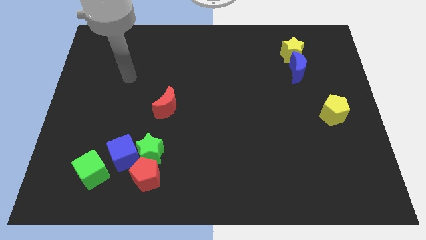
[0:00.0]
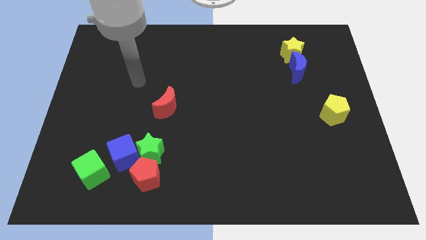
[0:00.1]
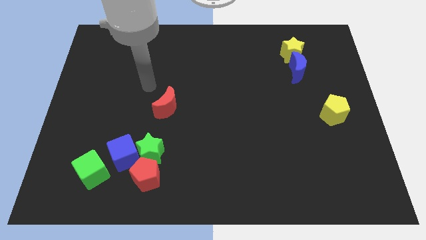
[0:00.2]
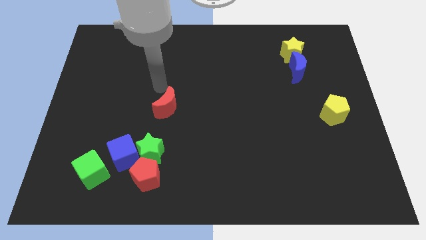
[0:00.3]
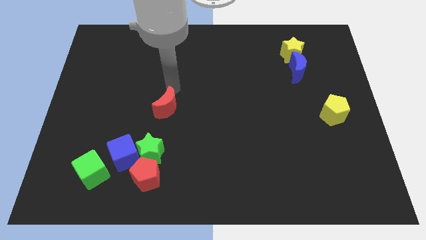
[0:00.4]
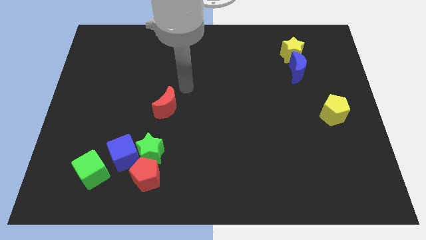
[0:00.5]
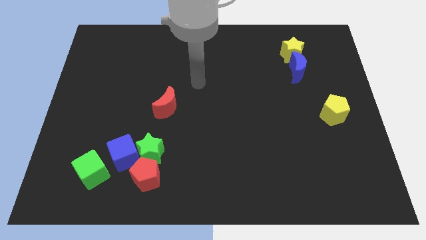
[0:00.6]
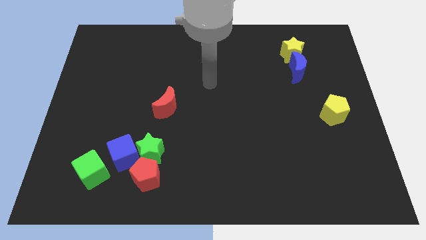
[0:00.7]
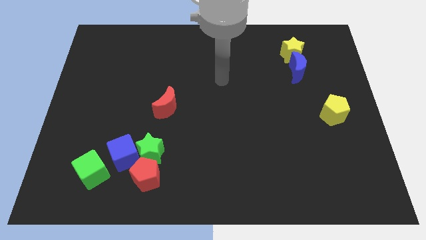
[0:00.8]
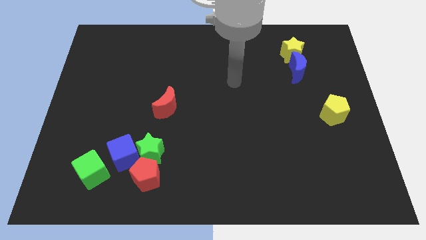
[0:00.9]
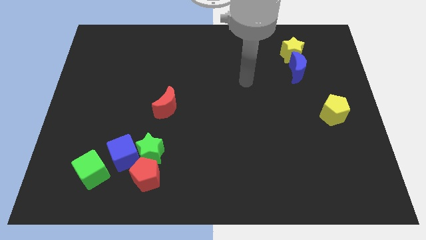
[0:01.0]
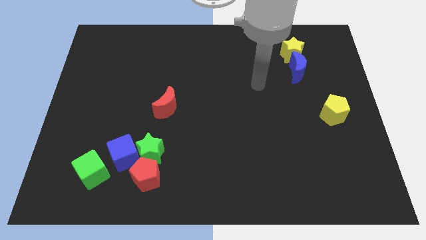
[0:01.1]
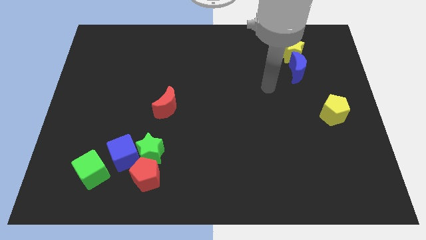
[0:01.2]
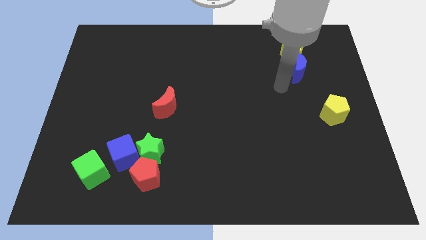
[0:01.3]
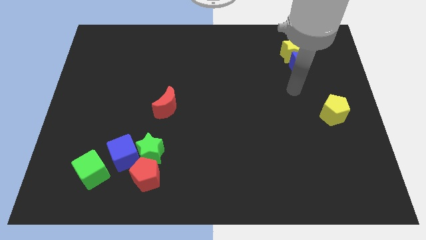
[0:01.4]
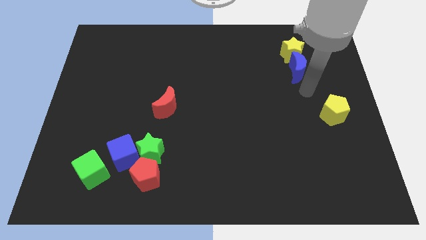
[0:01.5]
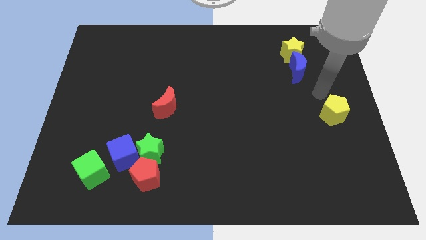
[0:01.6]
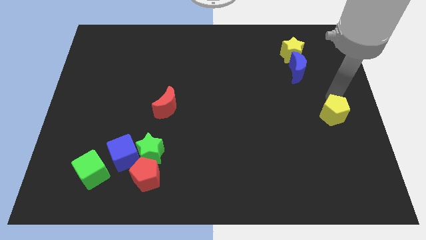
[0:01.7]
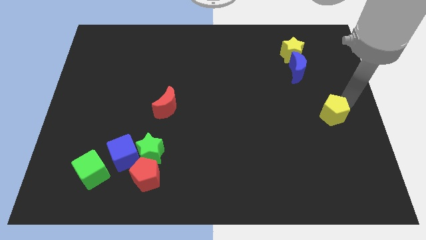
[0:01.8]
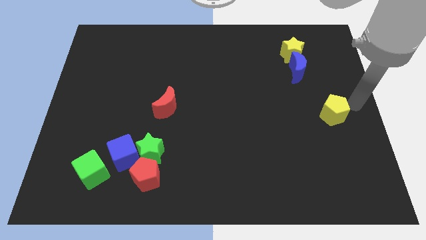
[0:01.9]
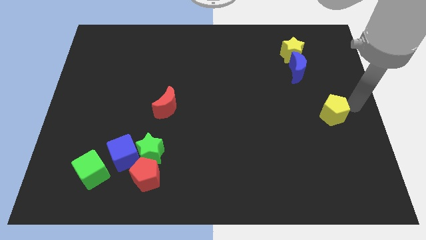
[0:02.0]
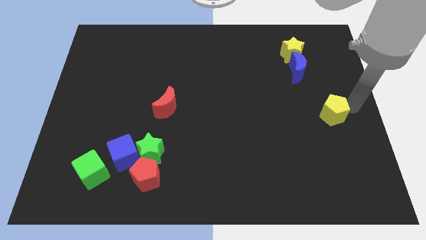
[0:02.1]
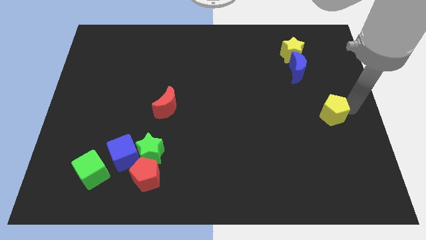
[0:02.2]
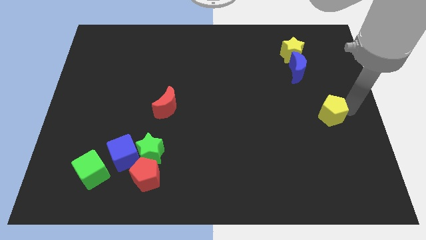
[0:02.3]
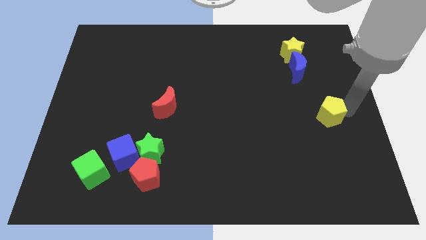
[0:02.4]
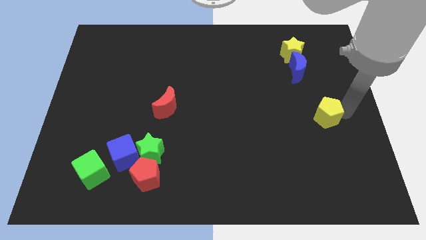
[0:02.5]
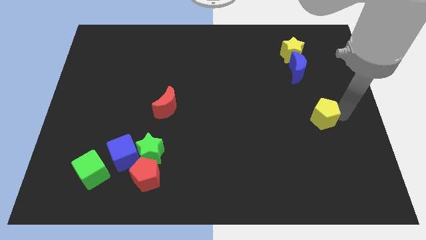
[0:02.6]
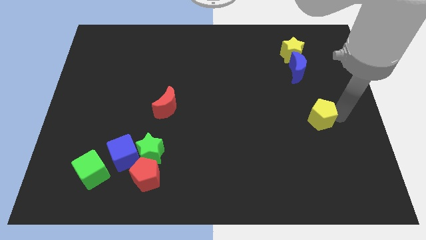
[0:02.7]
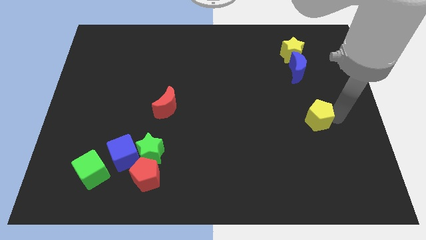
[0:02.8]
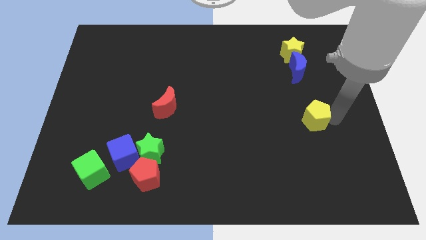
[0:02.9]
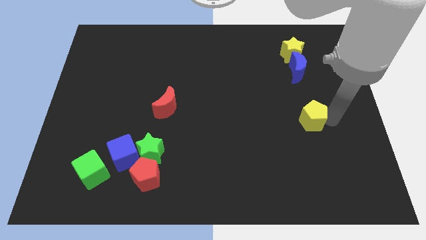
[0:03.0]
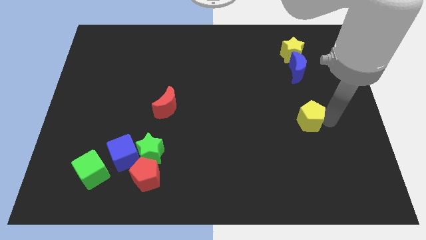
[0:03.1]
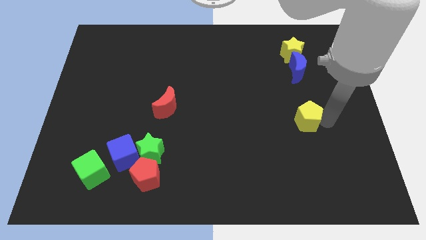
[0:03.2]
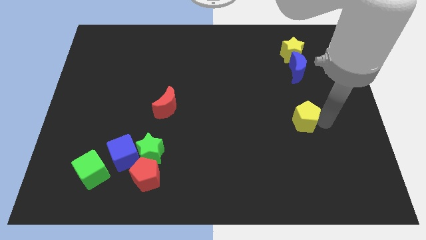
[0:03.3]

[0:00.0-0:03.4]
push the yellow pentagon a little to the left

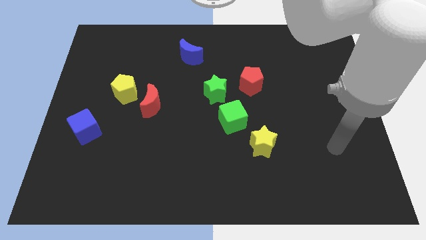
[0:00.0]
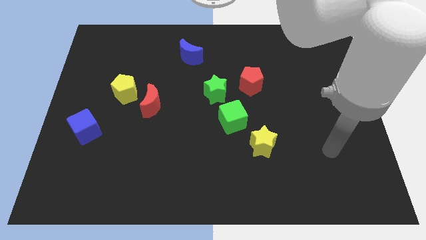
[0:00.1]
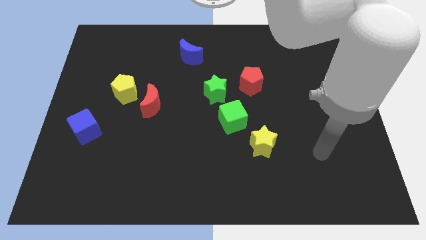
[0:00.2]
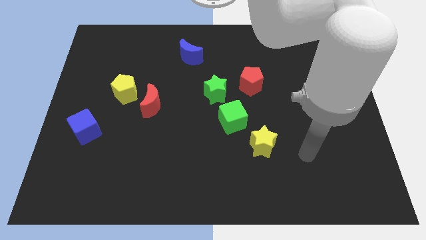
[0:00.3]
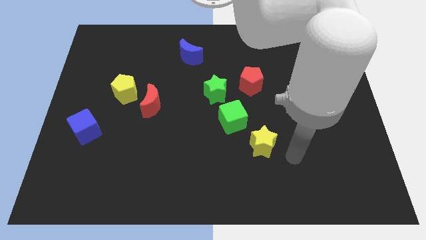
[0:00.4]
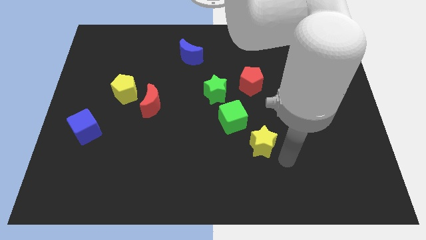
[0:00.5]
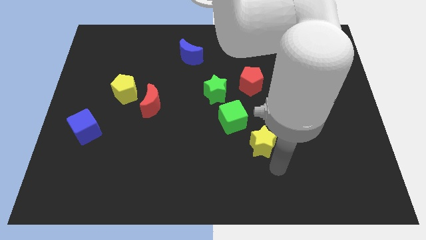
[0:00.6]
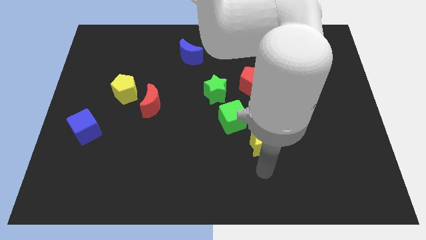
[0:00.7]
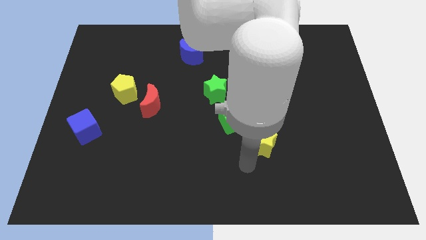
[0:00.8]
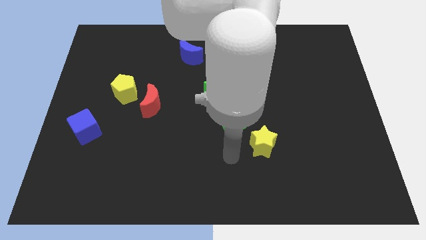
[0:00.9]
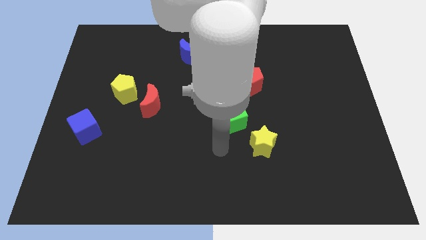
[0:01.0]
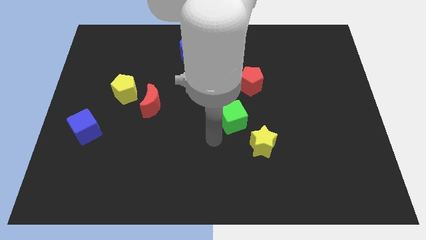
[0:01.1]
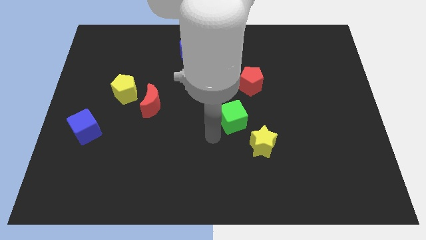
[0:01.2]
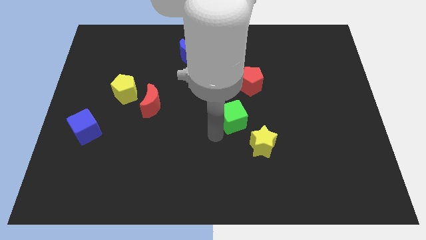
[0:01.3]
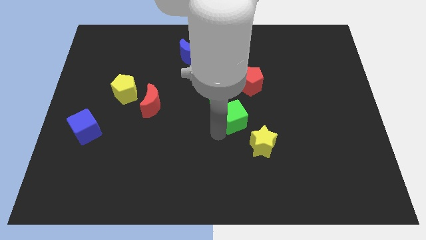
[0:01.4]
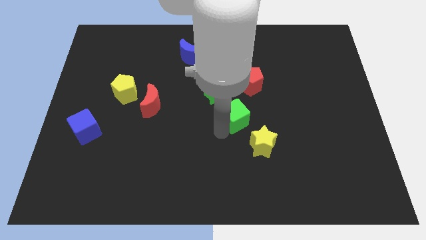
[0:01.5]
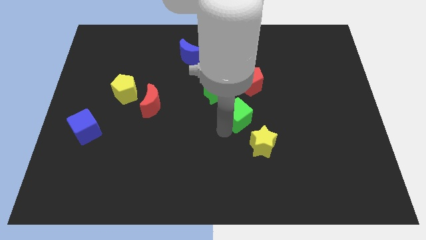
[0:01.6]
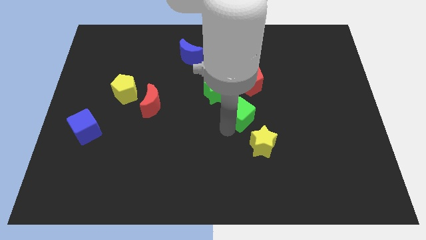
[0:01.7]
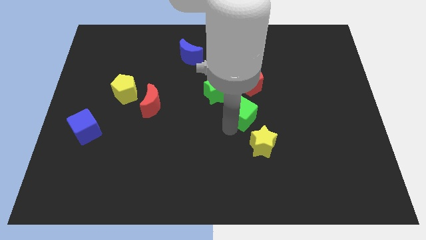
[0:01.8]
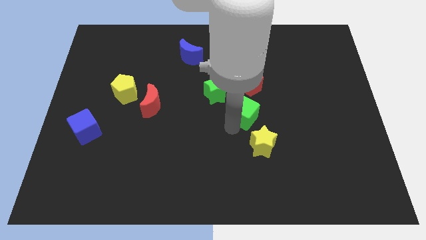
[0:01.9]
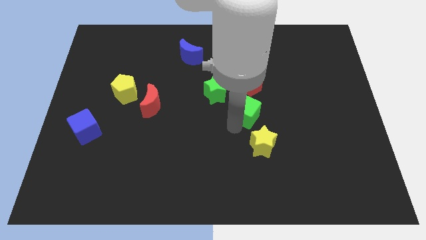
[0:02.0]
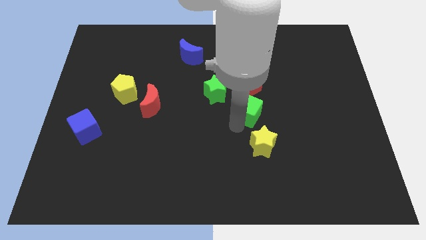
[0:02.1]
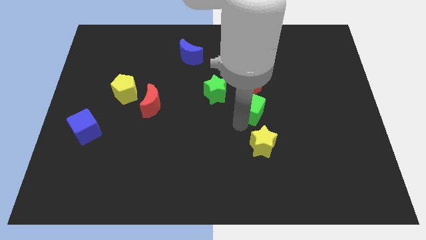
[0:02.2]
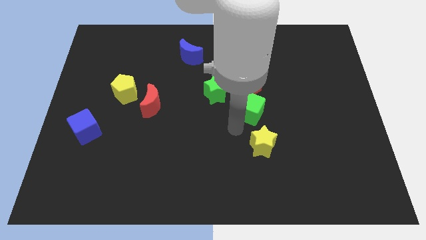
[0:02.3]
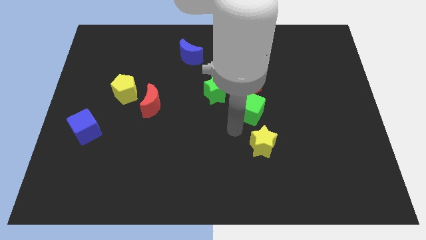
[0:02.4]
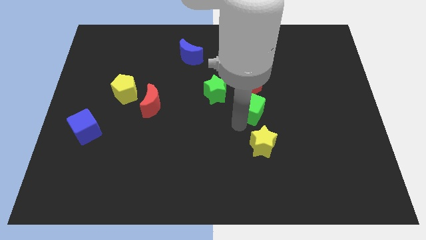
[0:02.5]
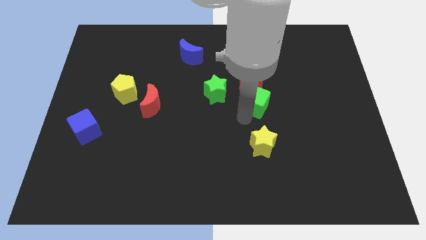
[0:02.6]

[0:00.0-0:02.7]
push the green cube slightly up and right diagonally

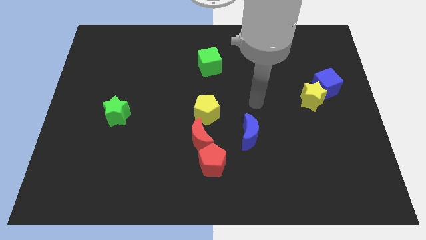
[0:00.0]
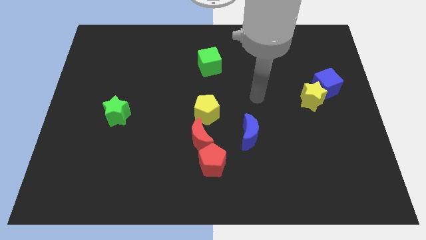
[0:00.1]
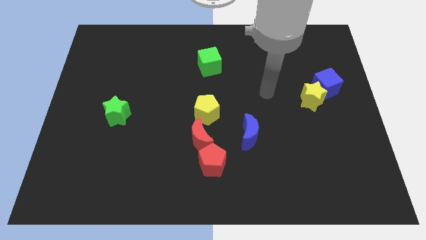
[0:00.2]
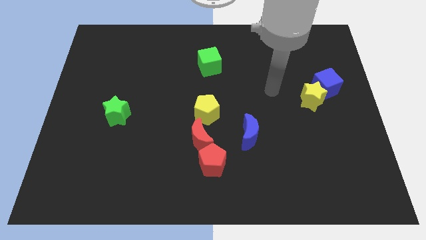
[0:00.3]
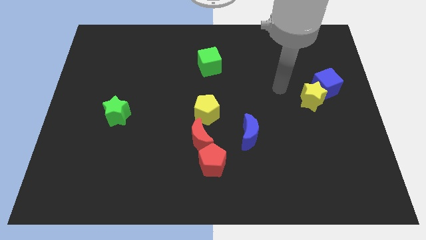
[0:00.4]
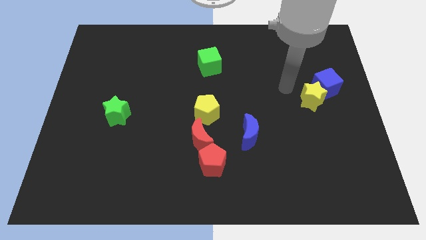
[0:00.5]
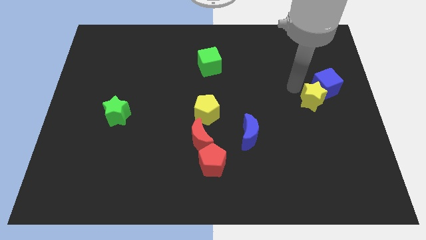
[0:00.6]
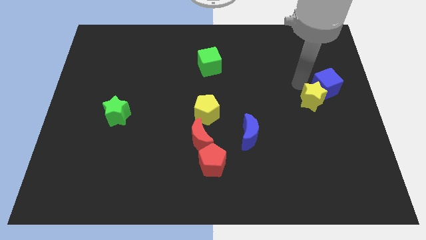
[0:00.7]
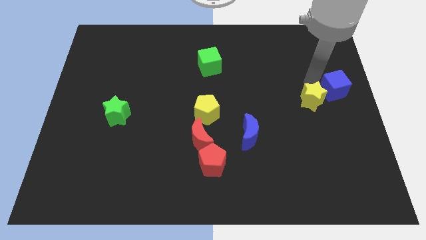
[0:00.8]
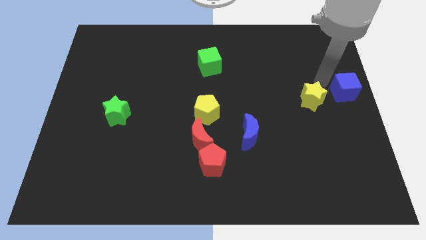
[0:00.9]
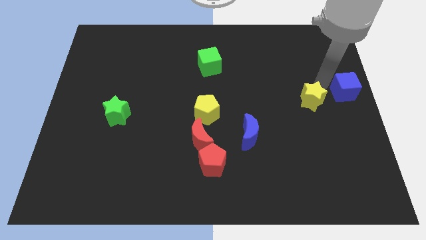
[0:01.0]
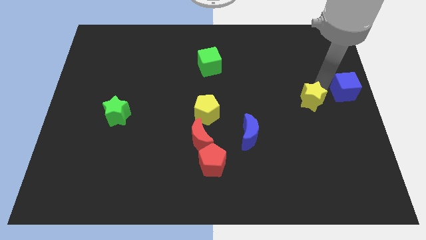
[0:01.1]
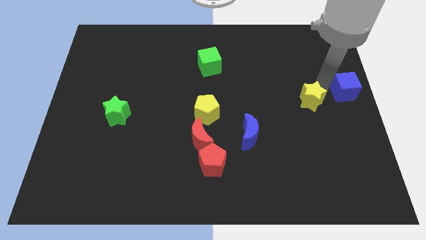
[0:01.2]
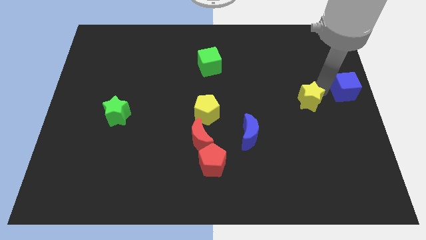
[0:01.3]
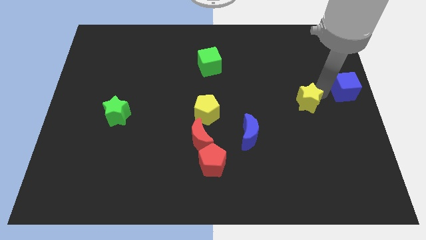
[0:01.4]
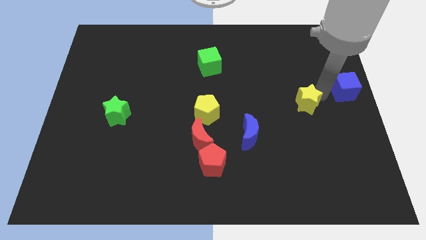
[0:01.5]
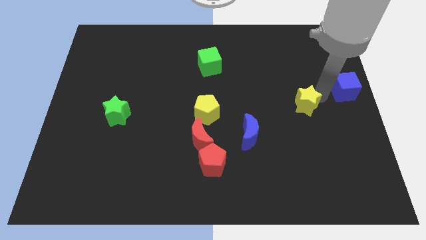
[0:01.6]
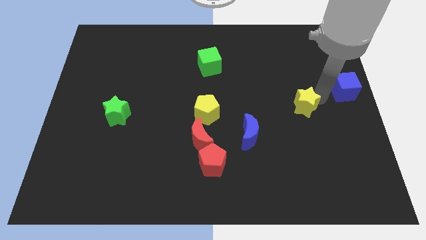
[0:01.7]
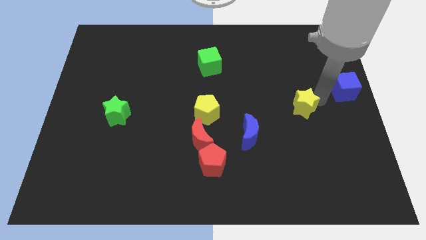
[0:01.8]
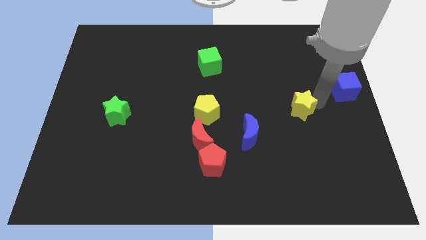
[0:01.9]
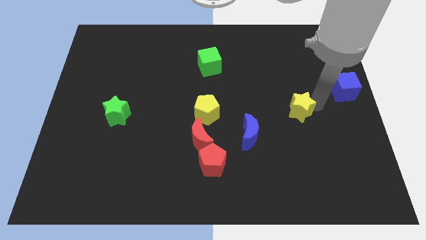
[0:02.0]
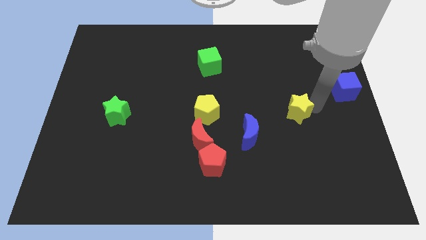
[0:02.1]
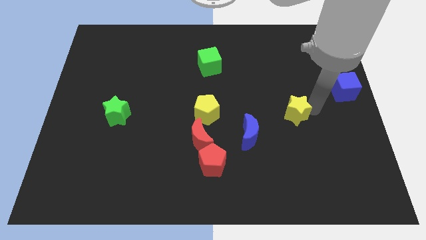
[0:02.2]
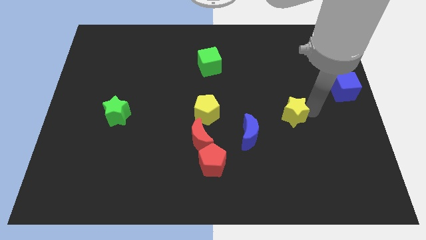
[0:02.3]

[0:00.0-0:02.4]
push the yellow star downwards and left diagonally a bit
